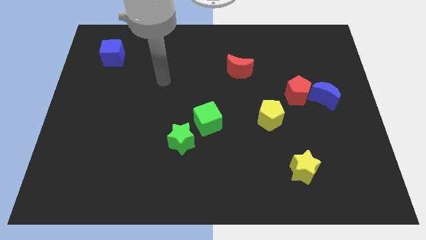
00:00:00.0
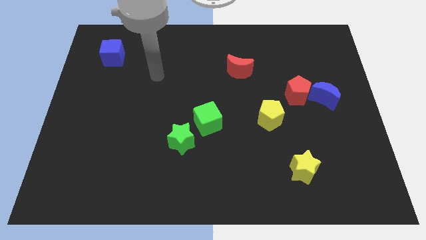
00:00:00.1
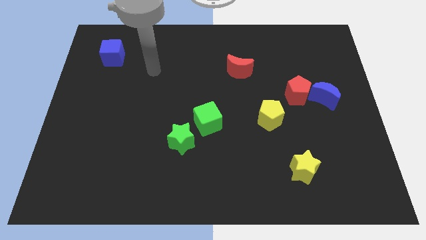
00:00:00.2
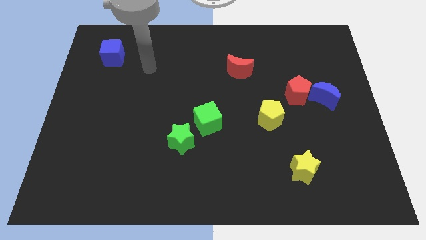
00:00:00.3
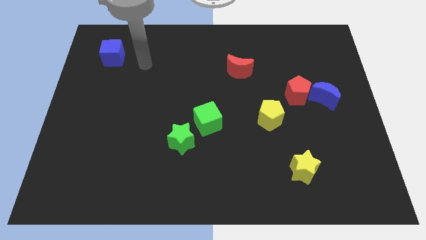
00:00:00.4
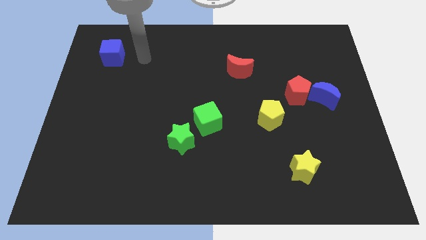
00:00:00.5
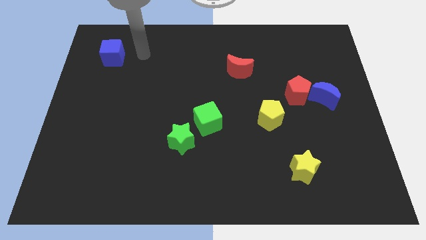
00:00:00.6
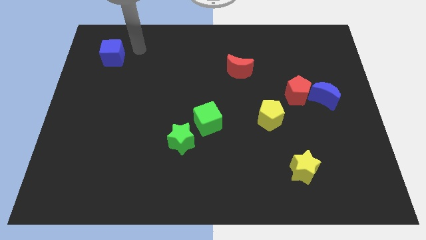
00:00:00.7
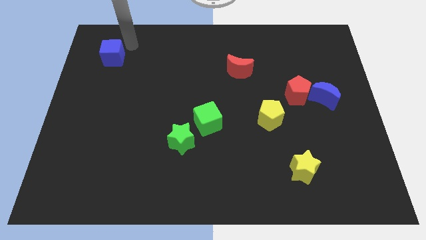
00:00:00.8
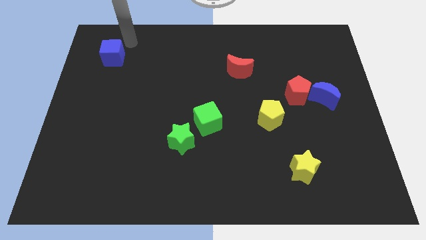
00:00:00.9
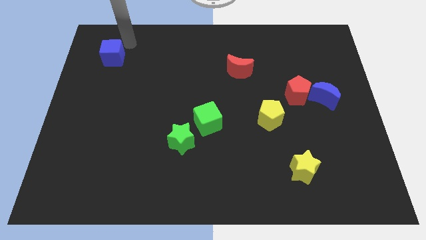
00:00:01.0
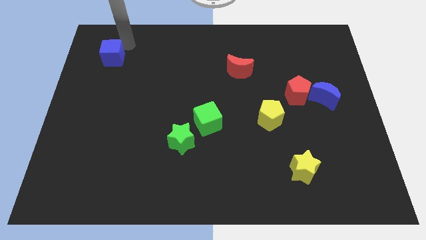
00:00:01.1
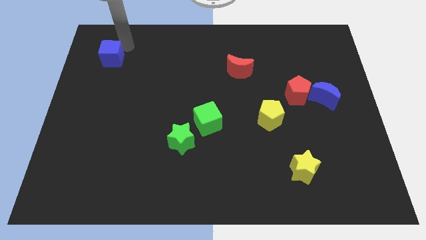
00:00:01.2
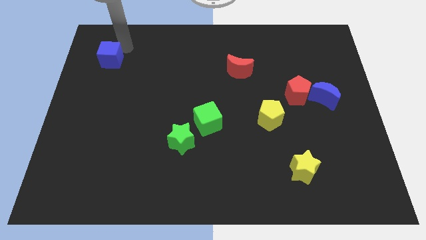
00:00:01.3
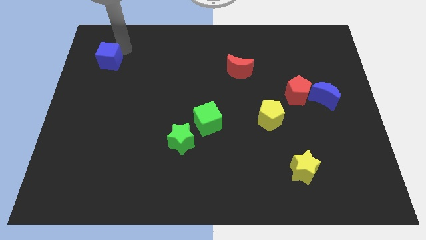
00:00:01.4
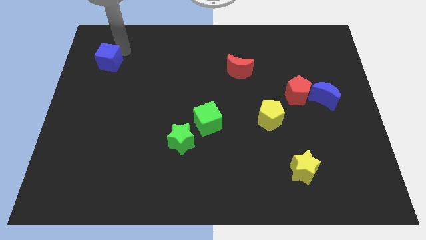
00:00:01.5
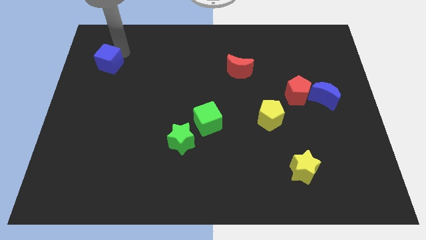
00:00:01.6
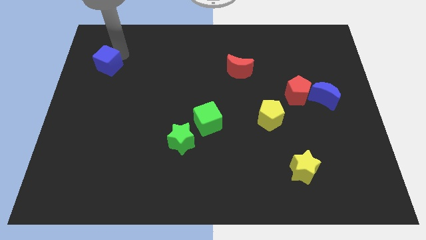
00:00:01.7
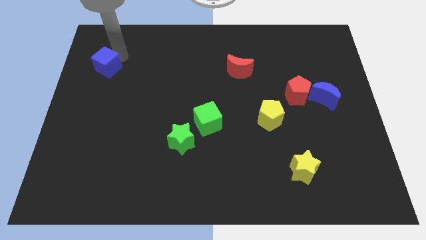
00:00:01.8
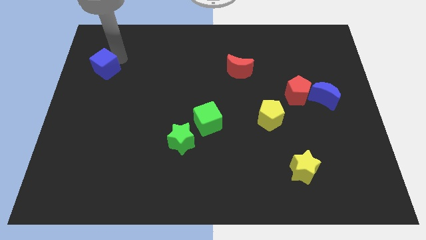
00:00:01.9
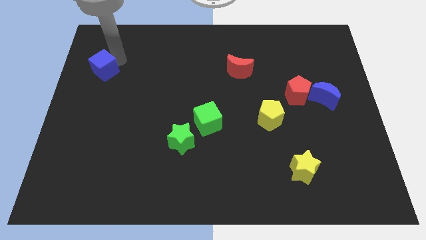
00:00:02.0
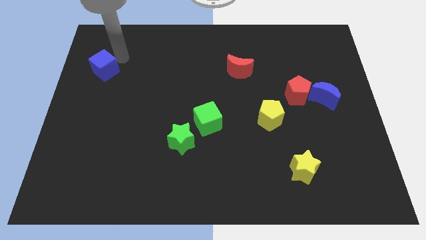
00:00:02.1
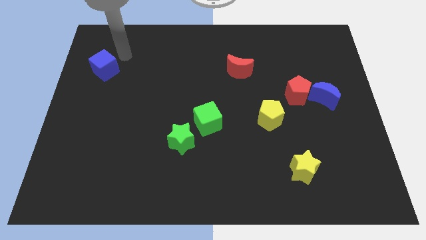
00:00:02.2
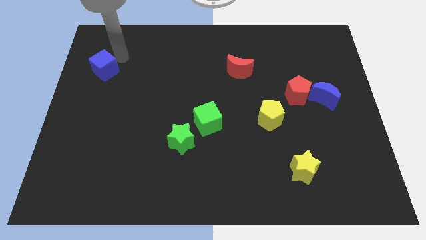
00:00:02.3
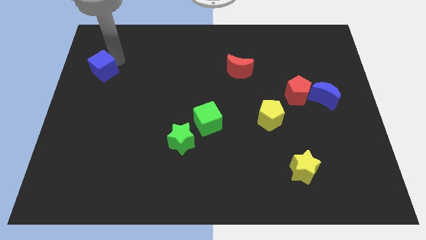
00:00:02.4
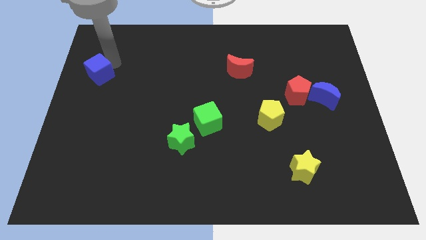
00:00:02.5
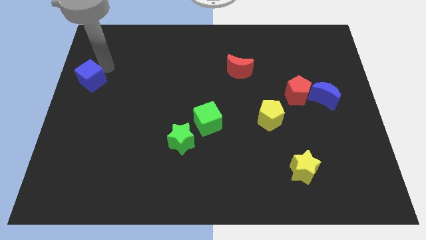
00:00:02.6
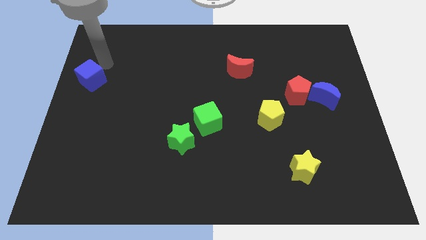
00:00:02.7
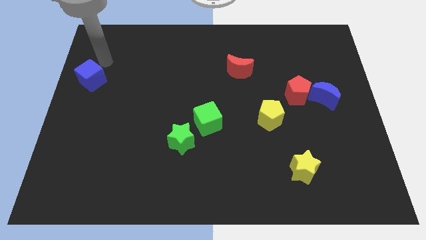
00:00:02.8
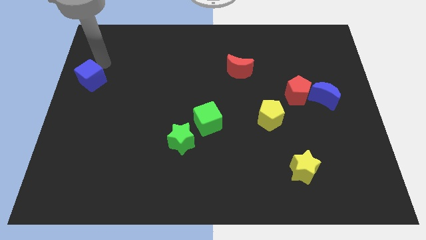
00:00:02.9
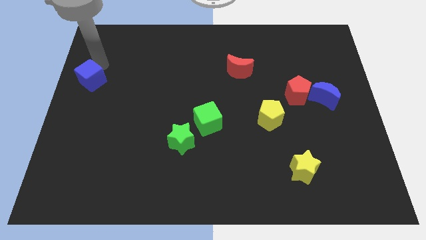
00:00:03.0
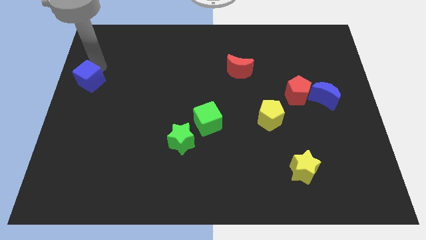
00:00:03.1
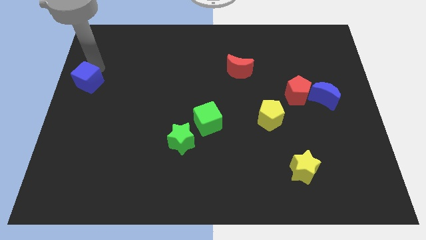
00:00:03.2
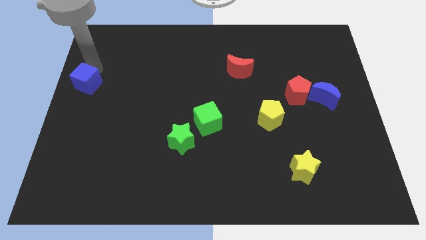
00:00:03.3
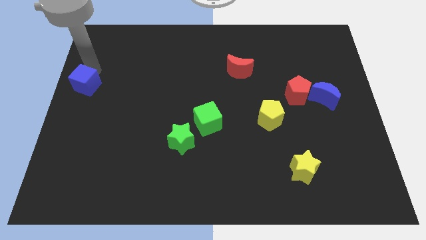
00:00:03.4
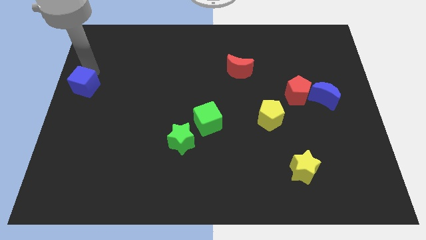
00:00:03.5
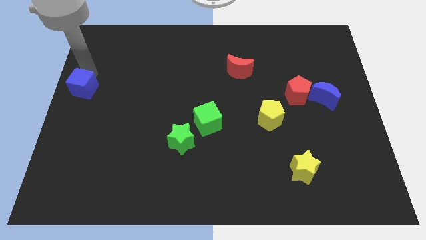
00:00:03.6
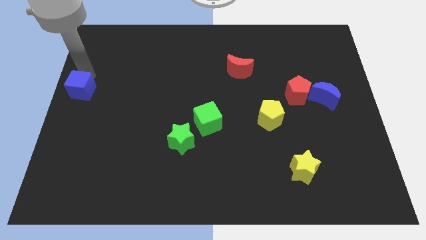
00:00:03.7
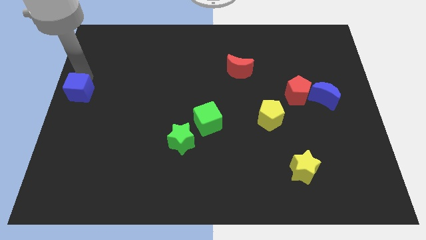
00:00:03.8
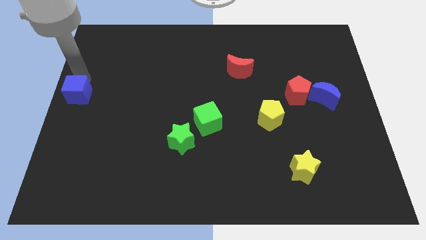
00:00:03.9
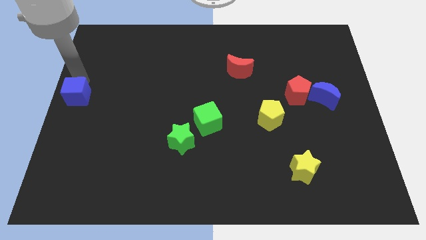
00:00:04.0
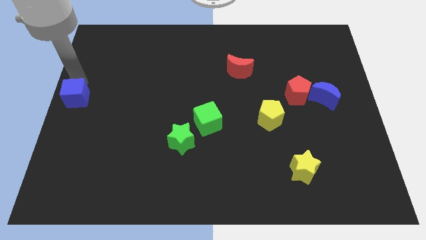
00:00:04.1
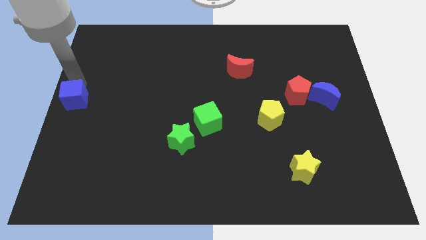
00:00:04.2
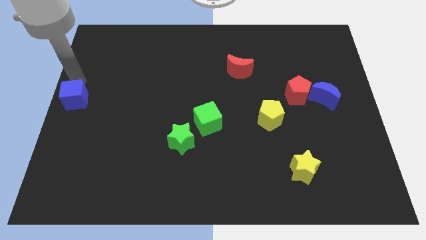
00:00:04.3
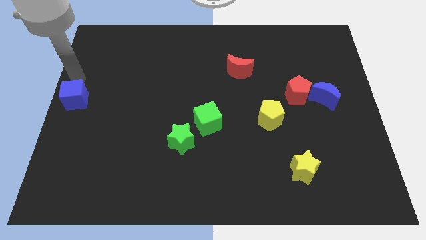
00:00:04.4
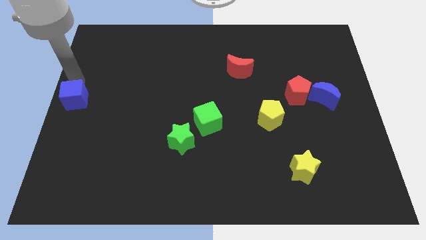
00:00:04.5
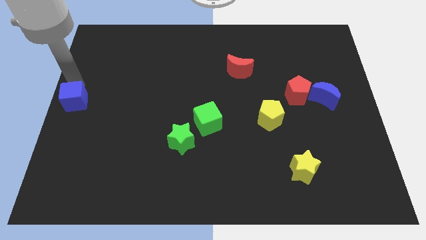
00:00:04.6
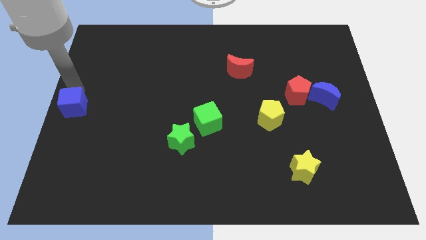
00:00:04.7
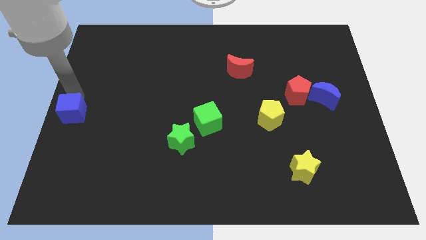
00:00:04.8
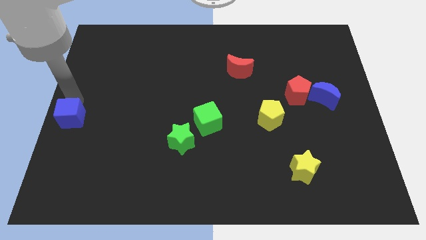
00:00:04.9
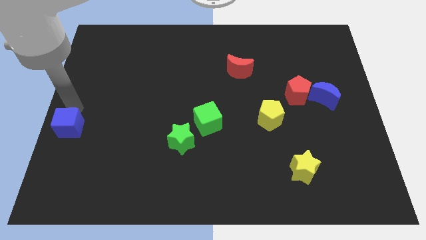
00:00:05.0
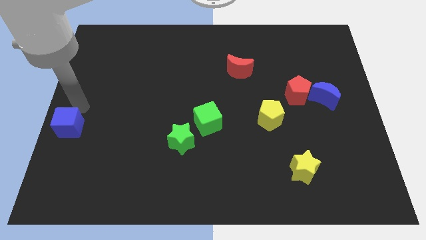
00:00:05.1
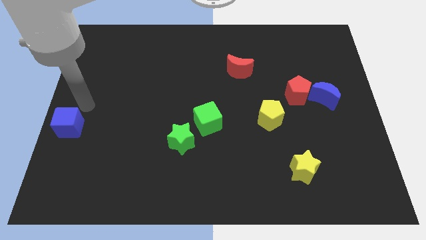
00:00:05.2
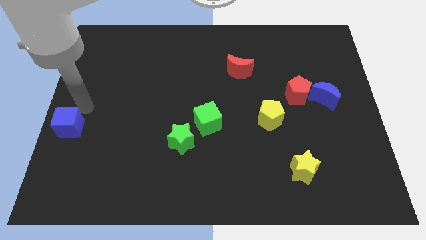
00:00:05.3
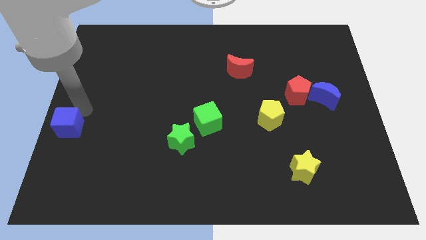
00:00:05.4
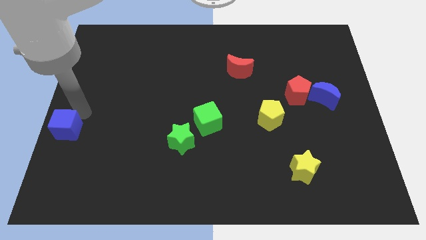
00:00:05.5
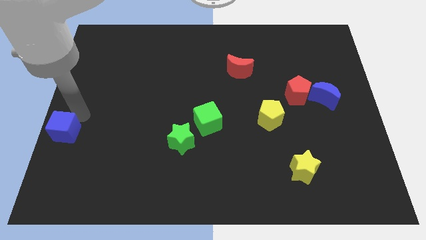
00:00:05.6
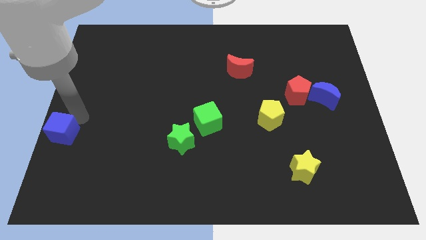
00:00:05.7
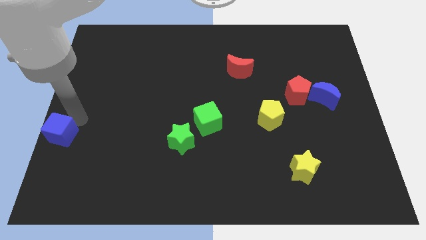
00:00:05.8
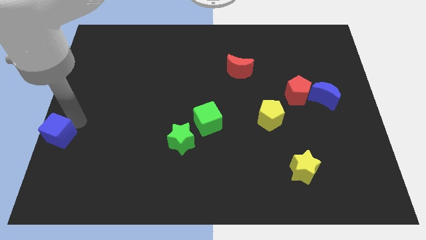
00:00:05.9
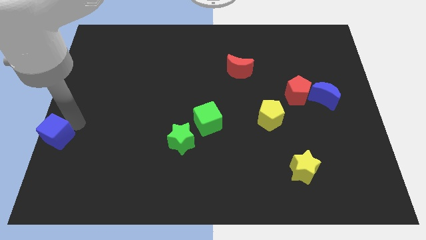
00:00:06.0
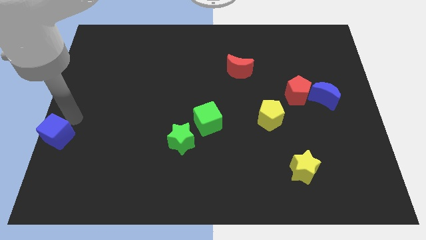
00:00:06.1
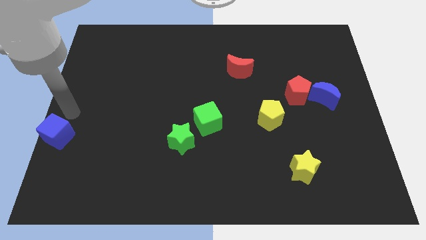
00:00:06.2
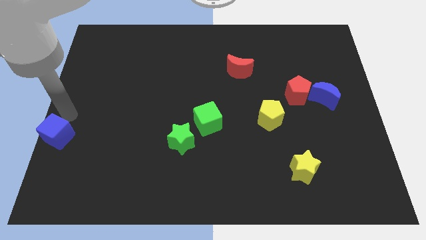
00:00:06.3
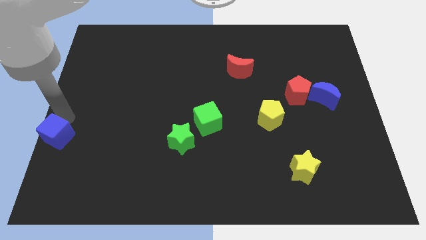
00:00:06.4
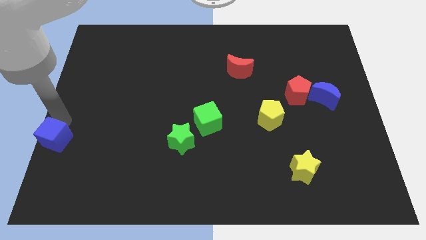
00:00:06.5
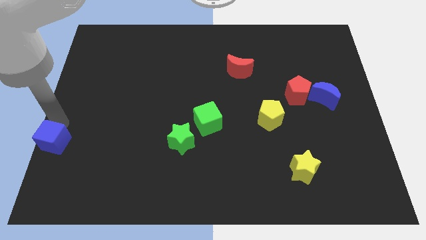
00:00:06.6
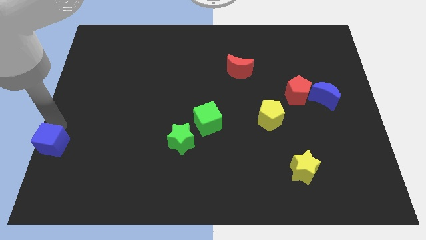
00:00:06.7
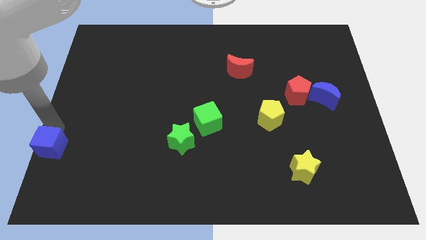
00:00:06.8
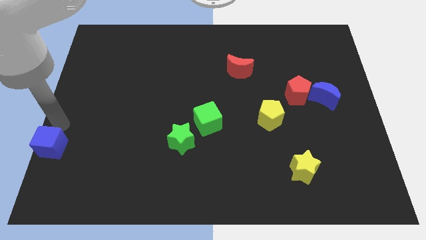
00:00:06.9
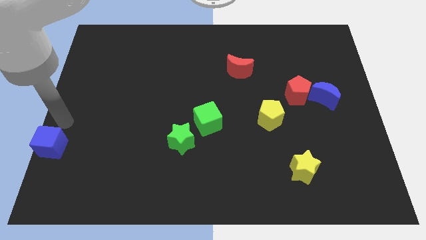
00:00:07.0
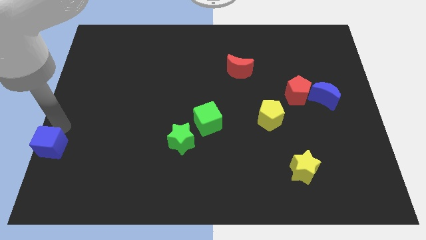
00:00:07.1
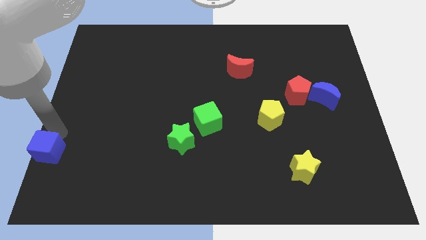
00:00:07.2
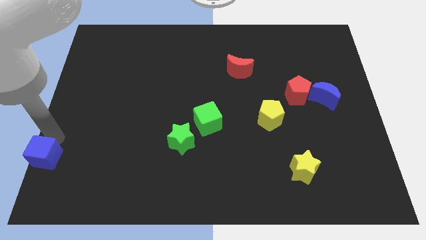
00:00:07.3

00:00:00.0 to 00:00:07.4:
push the blue cube to the lower left corner

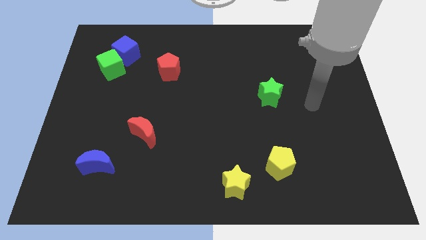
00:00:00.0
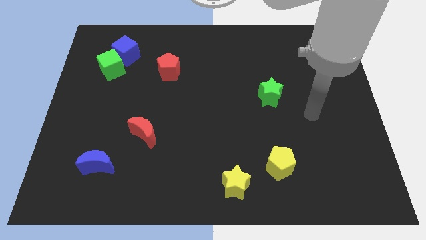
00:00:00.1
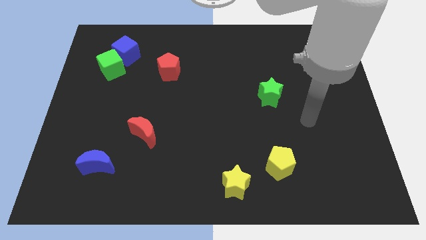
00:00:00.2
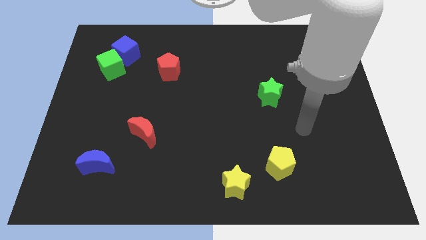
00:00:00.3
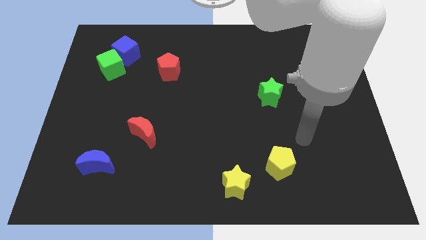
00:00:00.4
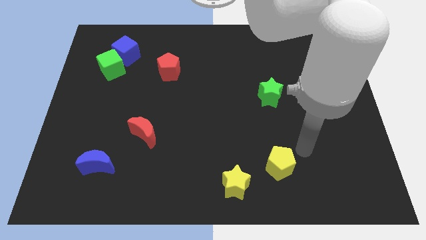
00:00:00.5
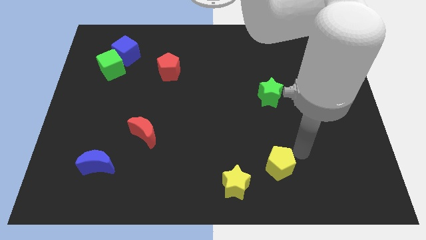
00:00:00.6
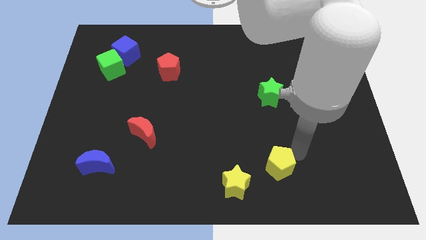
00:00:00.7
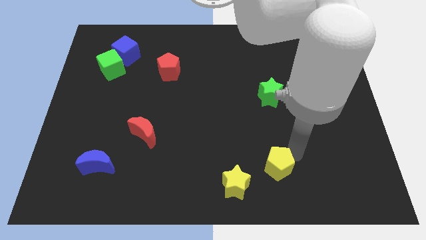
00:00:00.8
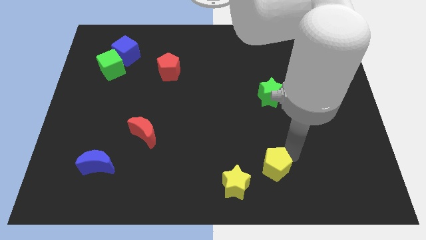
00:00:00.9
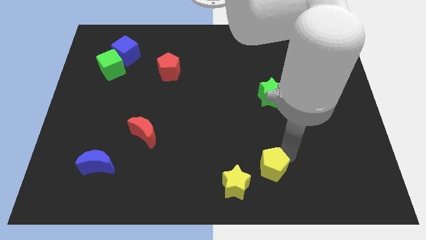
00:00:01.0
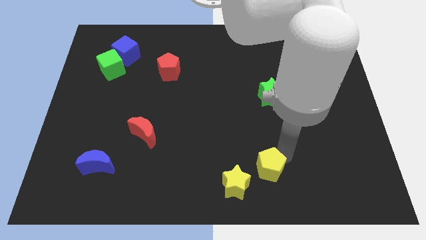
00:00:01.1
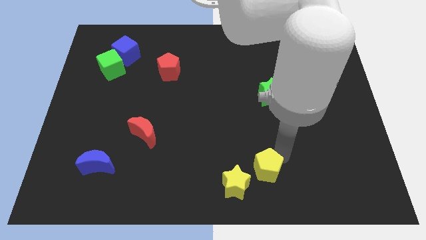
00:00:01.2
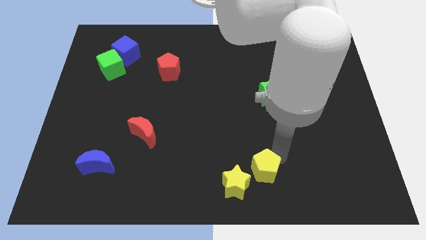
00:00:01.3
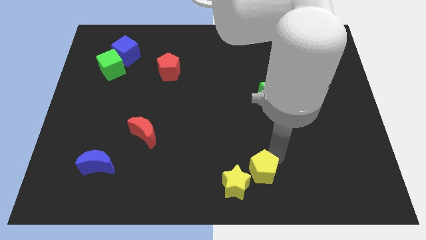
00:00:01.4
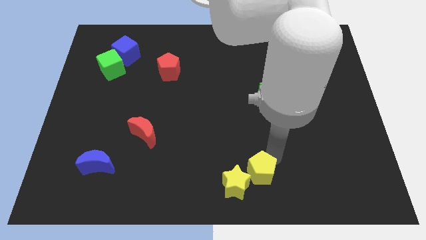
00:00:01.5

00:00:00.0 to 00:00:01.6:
slide the yellow pentagon to the bottom
